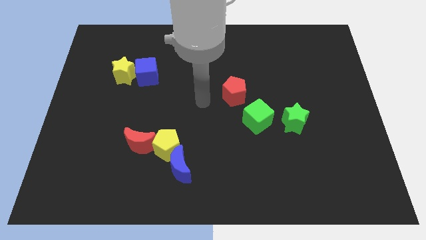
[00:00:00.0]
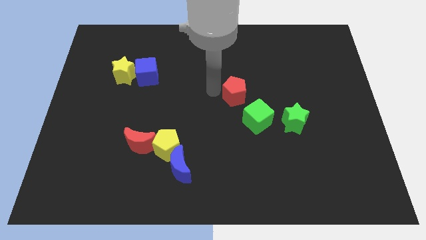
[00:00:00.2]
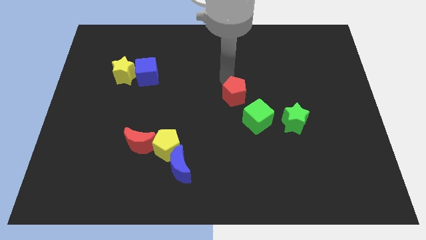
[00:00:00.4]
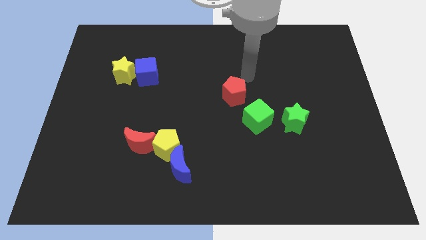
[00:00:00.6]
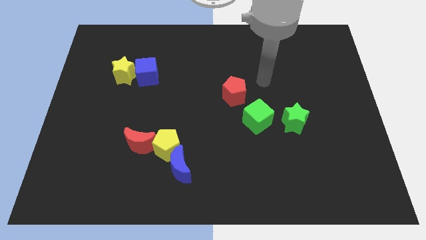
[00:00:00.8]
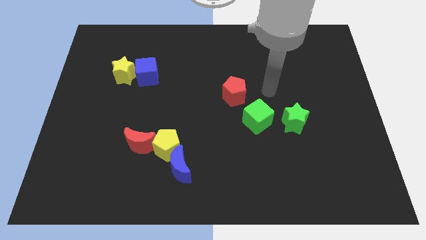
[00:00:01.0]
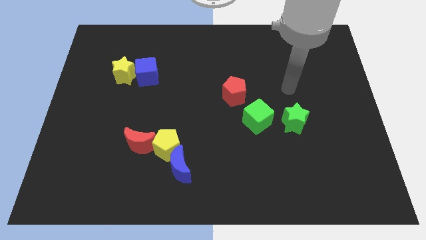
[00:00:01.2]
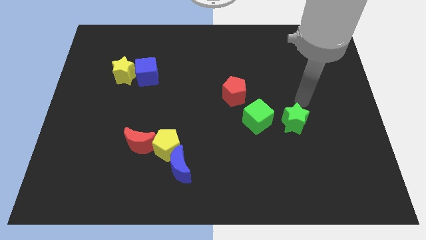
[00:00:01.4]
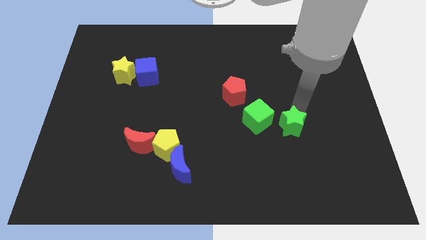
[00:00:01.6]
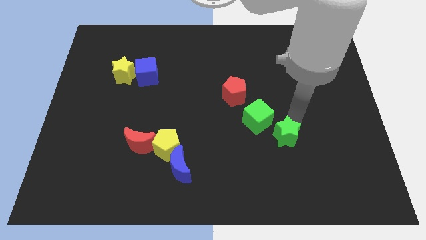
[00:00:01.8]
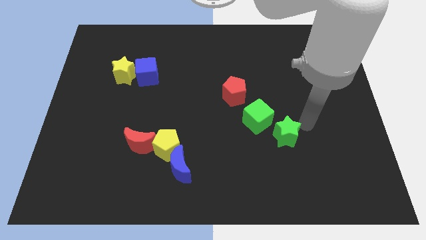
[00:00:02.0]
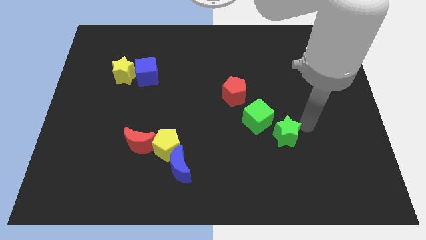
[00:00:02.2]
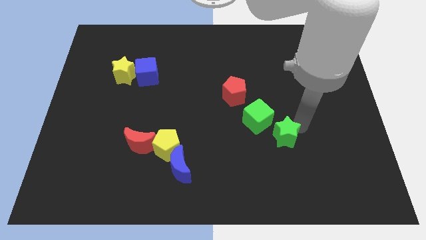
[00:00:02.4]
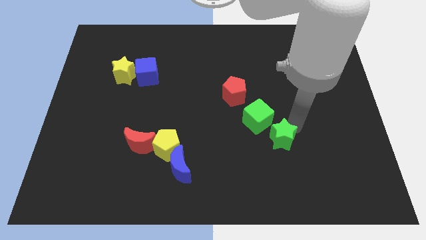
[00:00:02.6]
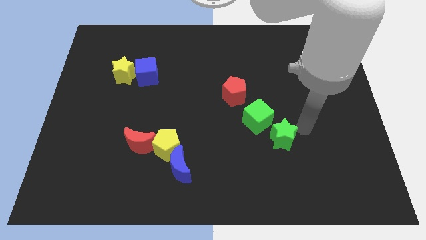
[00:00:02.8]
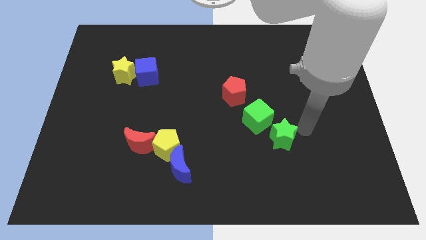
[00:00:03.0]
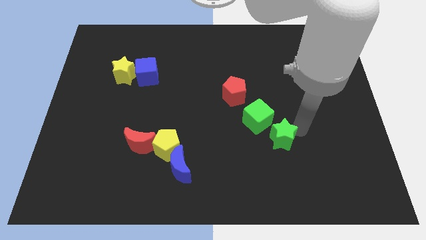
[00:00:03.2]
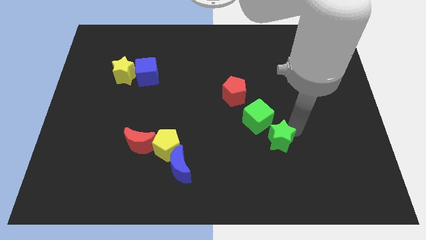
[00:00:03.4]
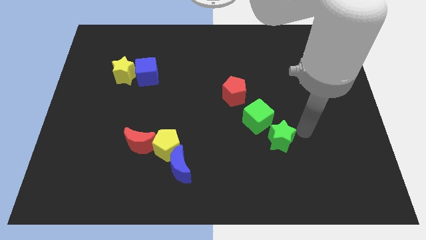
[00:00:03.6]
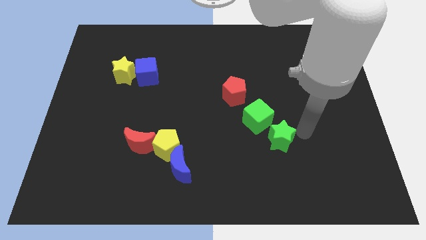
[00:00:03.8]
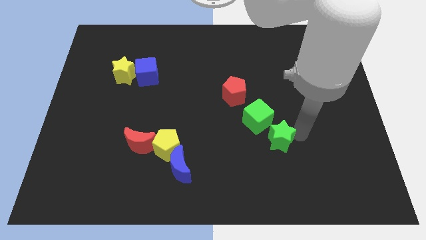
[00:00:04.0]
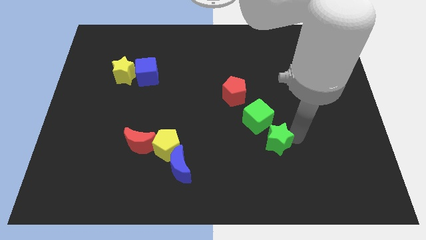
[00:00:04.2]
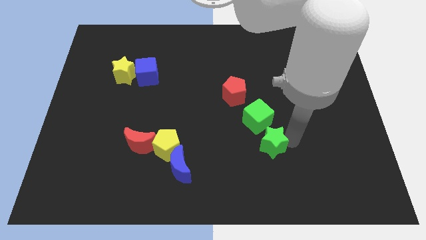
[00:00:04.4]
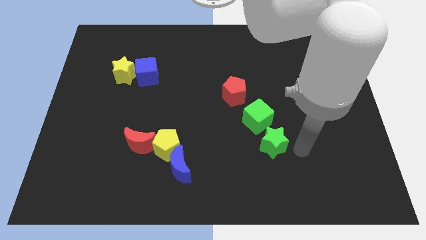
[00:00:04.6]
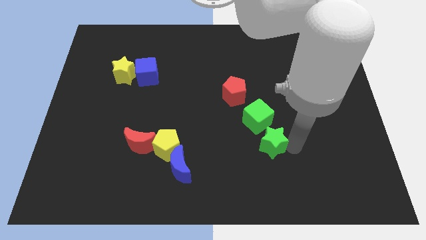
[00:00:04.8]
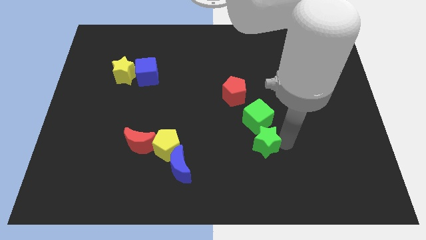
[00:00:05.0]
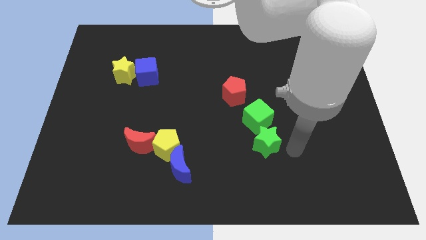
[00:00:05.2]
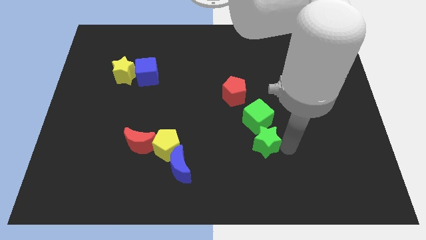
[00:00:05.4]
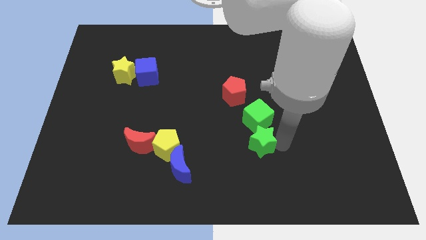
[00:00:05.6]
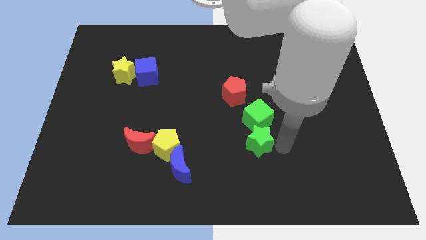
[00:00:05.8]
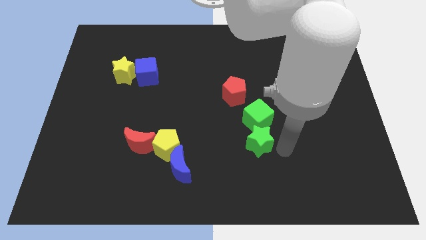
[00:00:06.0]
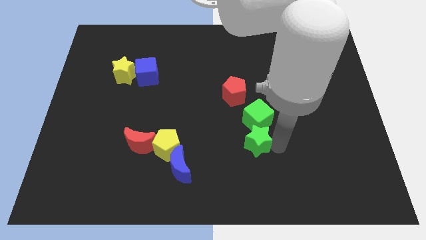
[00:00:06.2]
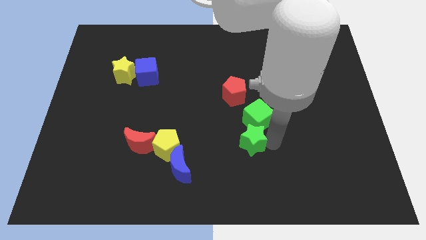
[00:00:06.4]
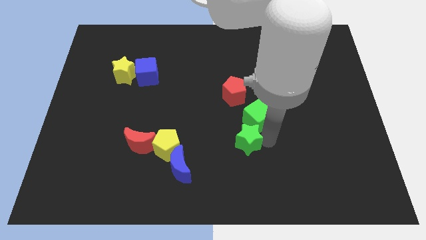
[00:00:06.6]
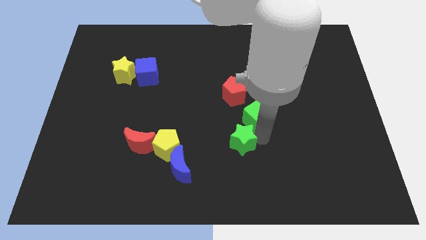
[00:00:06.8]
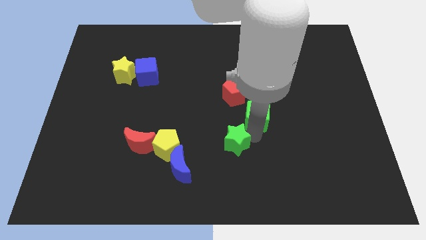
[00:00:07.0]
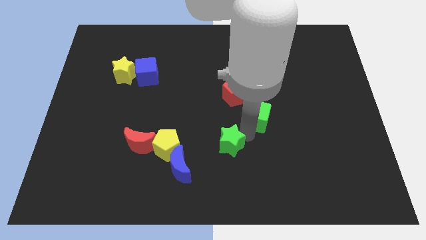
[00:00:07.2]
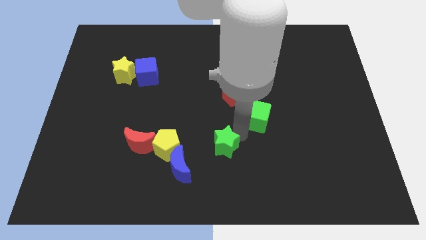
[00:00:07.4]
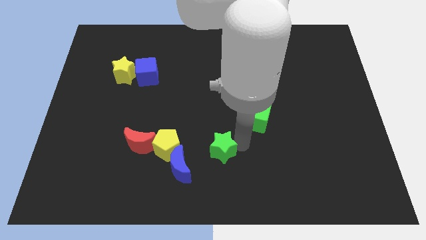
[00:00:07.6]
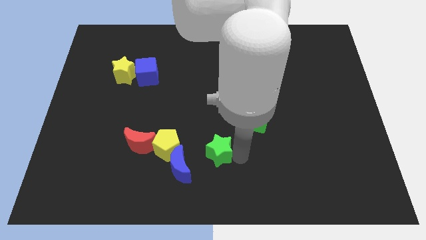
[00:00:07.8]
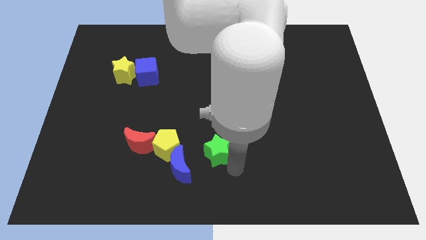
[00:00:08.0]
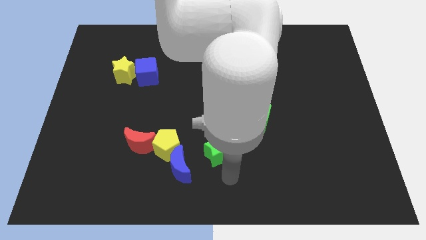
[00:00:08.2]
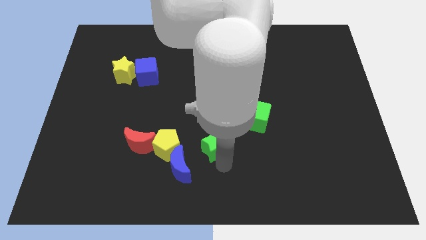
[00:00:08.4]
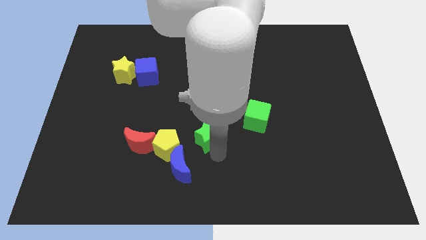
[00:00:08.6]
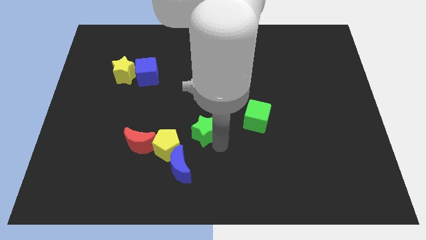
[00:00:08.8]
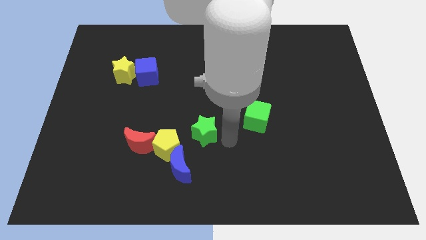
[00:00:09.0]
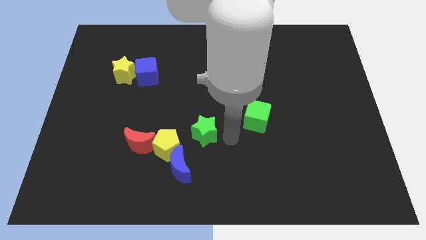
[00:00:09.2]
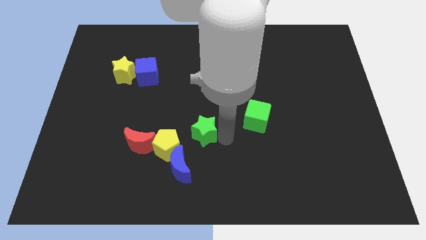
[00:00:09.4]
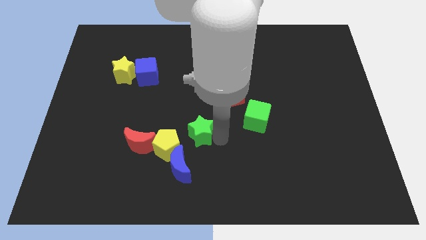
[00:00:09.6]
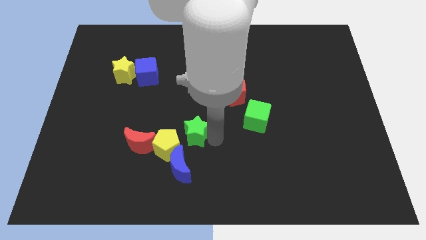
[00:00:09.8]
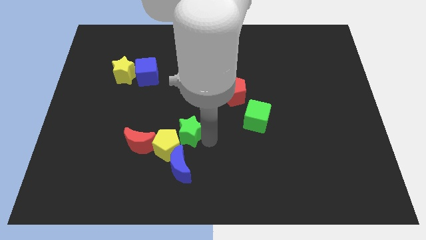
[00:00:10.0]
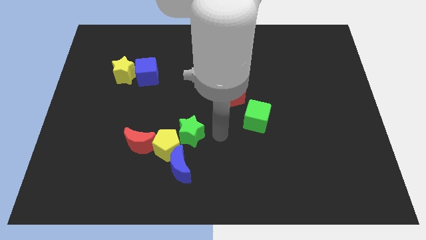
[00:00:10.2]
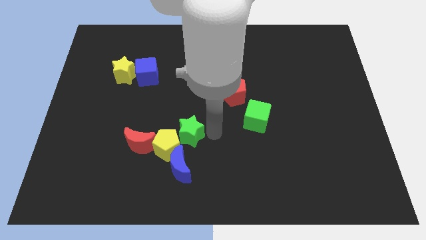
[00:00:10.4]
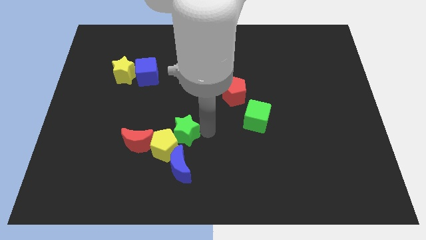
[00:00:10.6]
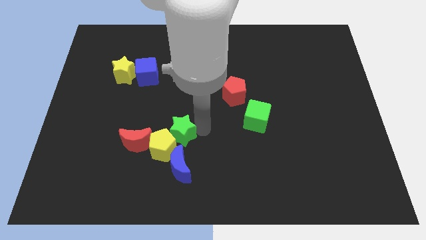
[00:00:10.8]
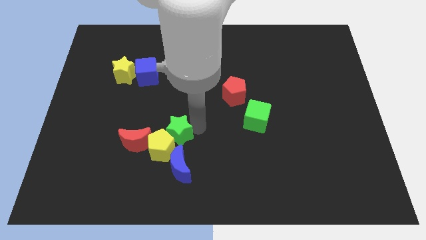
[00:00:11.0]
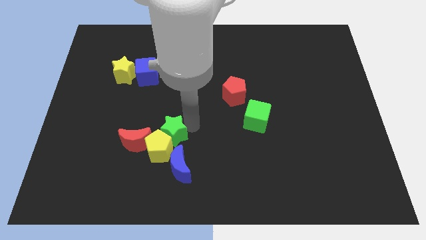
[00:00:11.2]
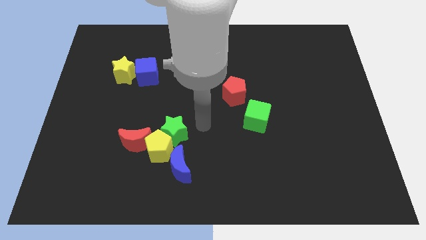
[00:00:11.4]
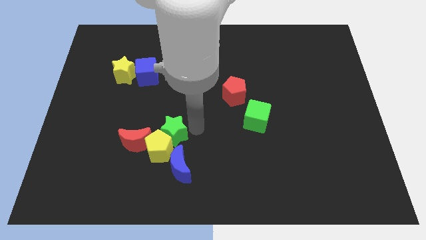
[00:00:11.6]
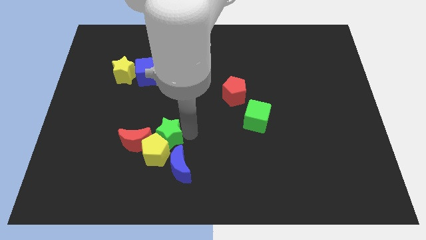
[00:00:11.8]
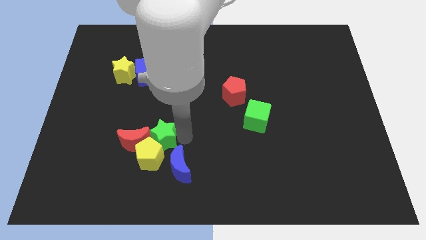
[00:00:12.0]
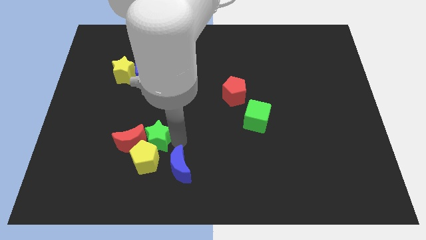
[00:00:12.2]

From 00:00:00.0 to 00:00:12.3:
push the green star towards the red moon

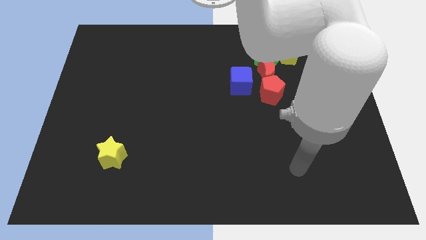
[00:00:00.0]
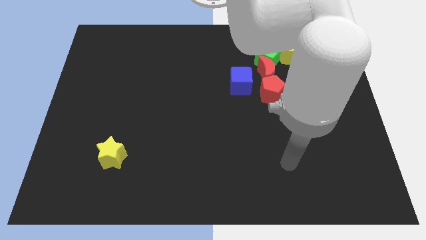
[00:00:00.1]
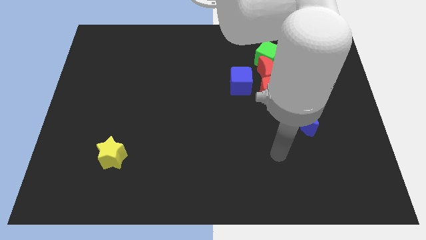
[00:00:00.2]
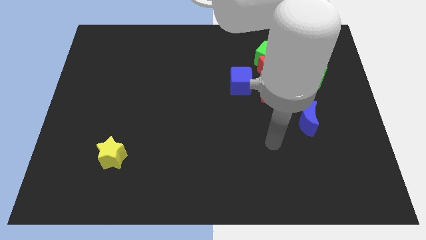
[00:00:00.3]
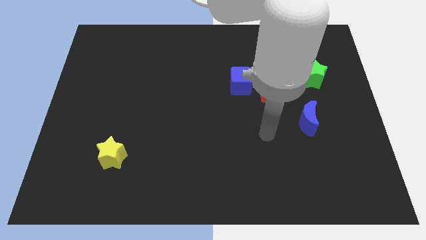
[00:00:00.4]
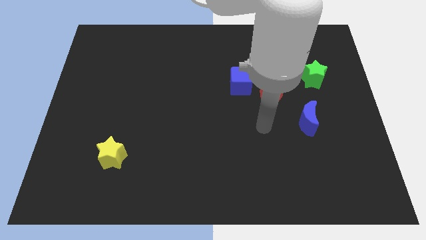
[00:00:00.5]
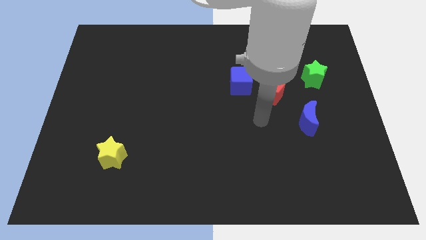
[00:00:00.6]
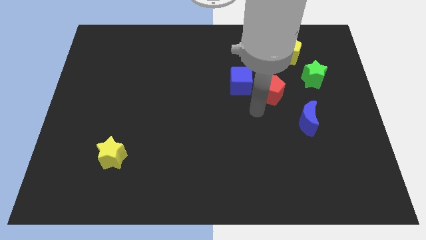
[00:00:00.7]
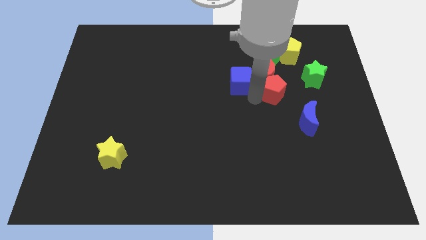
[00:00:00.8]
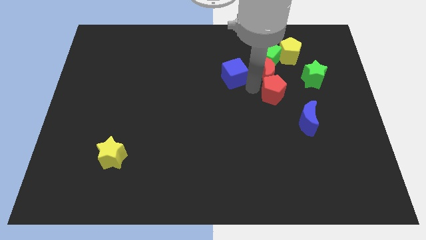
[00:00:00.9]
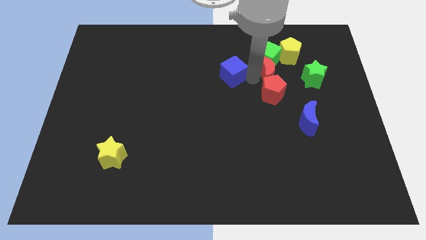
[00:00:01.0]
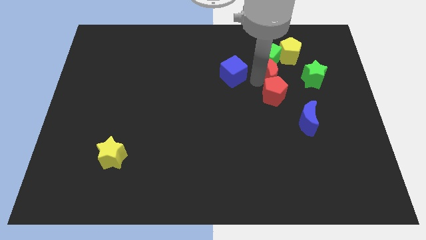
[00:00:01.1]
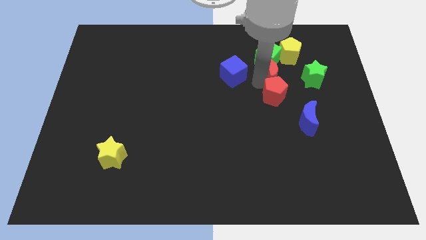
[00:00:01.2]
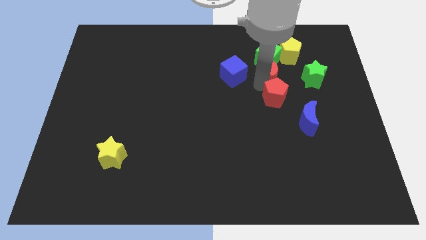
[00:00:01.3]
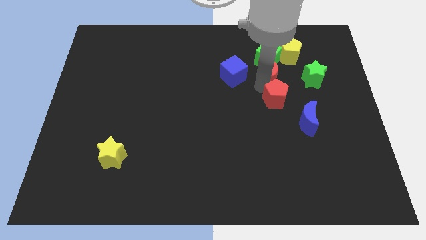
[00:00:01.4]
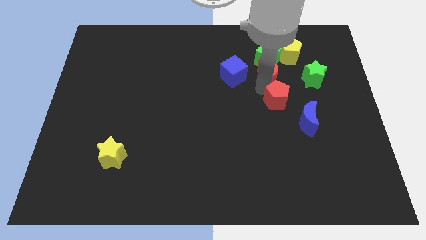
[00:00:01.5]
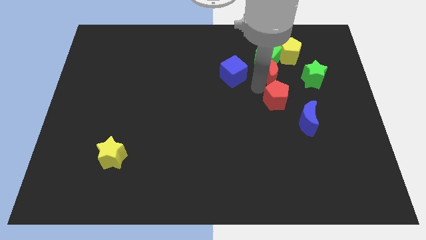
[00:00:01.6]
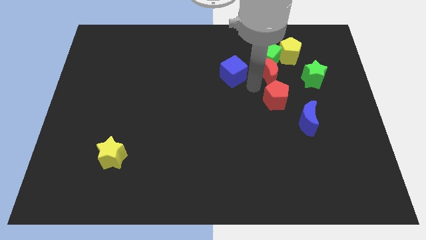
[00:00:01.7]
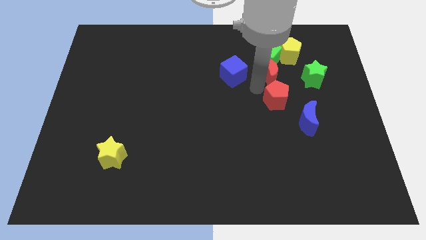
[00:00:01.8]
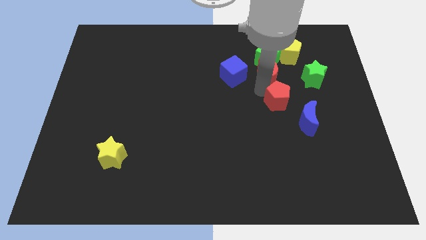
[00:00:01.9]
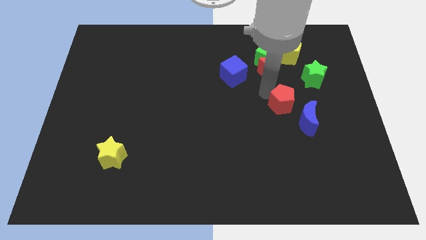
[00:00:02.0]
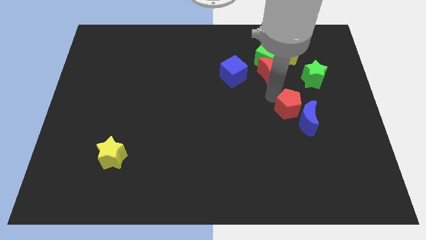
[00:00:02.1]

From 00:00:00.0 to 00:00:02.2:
slide the red pentagon towards the blue moon
